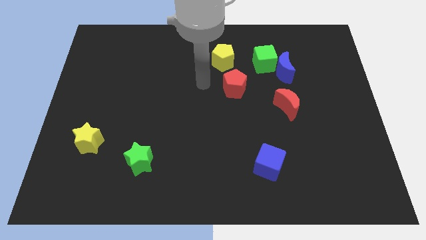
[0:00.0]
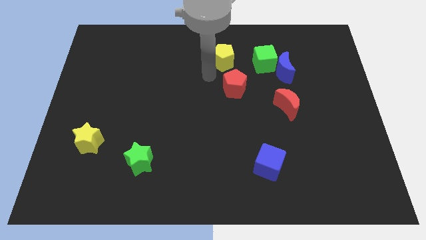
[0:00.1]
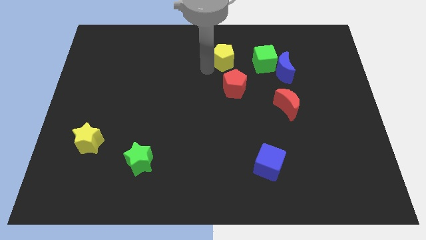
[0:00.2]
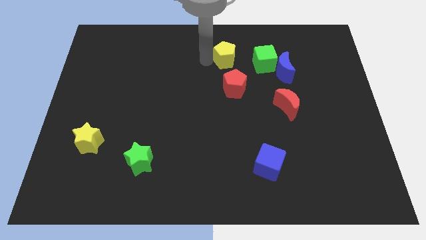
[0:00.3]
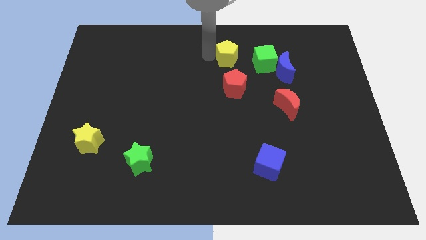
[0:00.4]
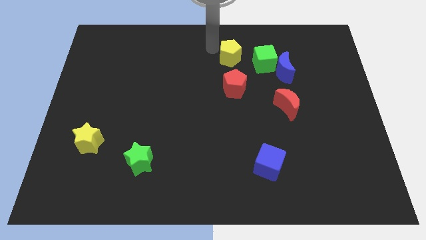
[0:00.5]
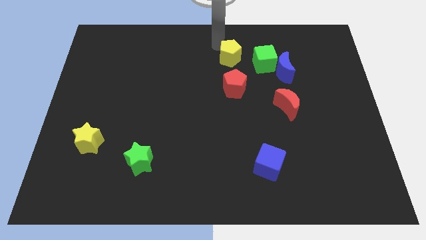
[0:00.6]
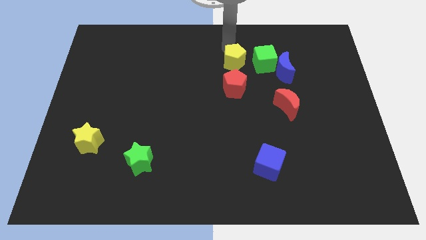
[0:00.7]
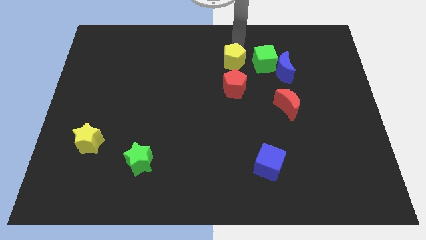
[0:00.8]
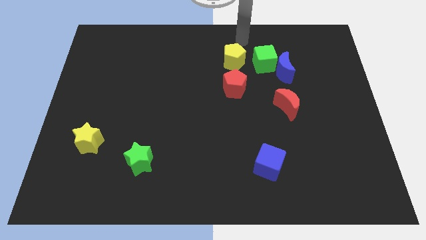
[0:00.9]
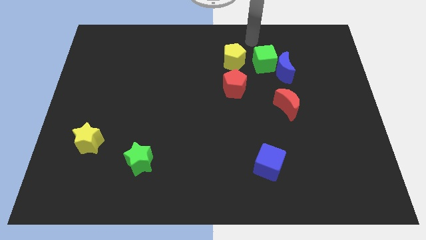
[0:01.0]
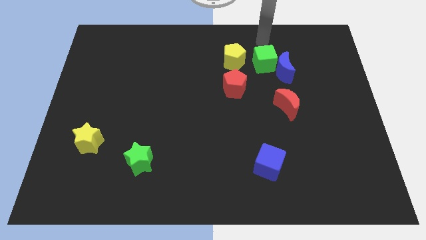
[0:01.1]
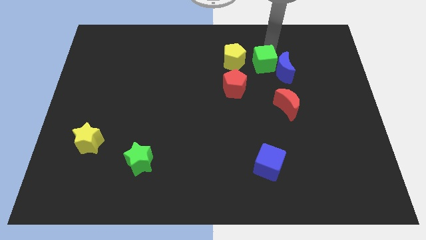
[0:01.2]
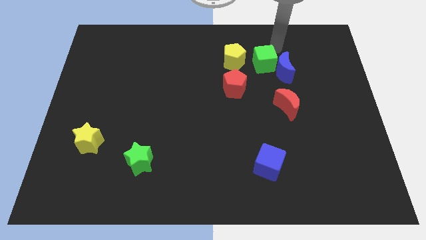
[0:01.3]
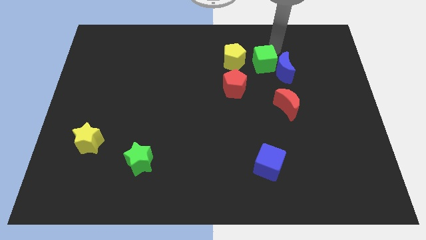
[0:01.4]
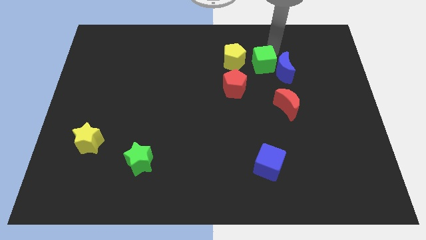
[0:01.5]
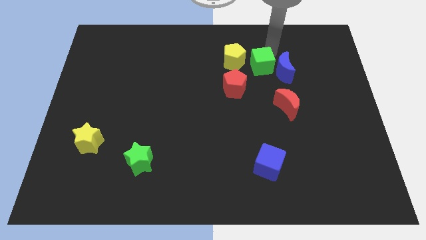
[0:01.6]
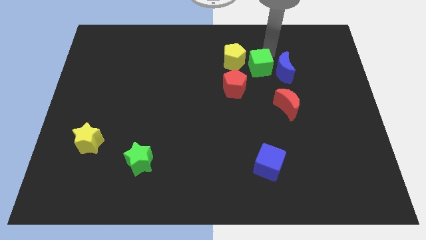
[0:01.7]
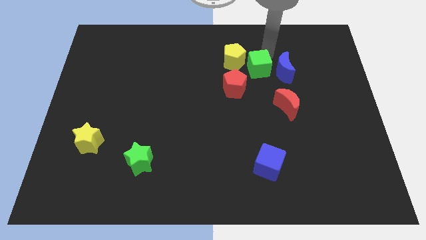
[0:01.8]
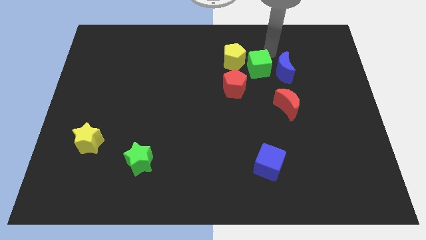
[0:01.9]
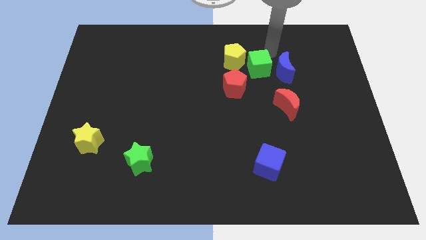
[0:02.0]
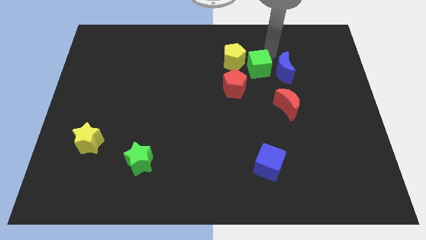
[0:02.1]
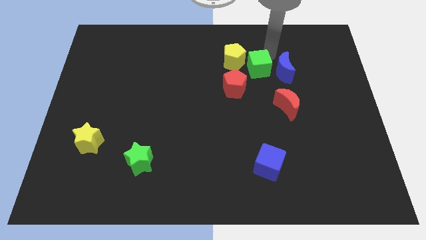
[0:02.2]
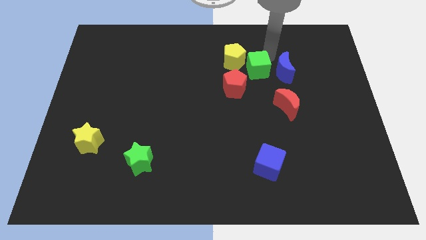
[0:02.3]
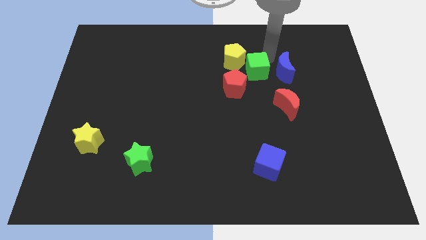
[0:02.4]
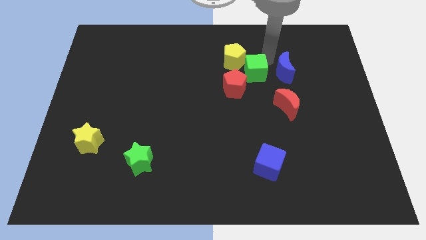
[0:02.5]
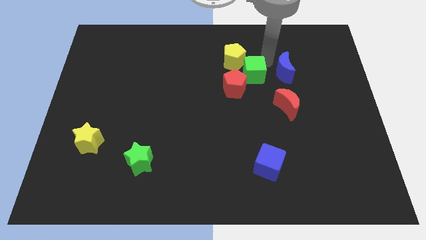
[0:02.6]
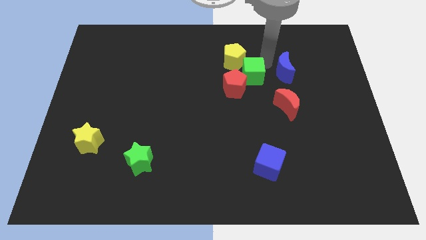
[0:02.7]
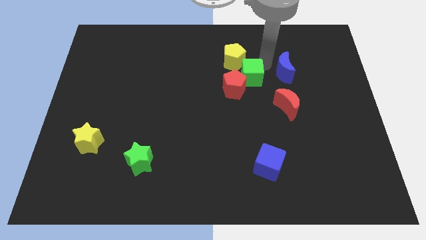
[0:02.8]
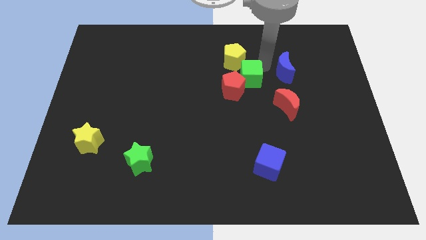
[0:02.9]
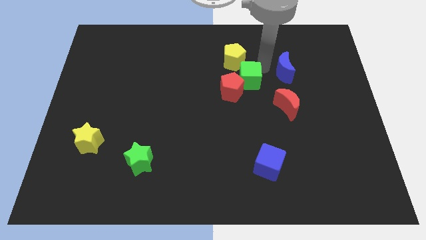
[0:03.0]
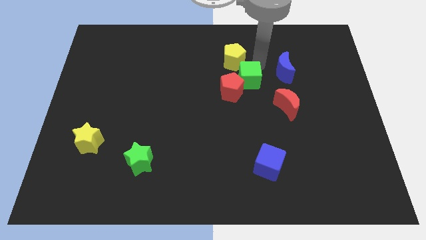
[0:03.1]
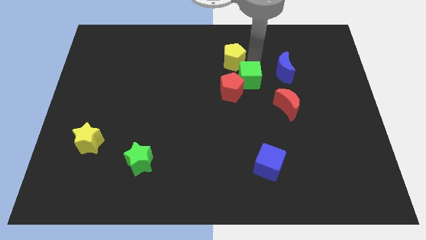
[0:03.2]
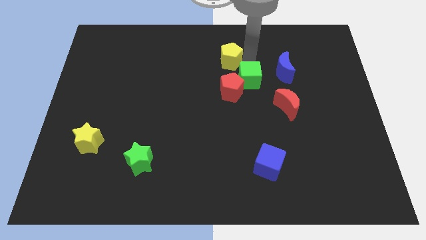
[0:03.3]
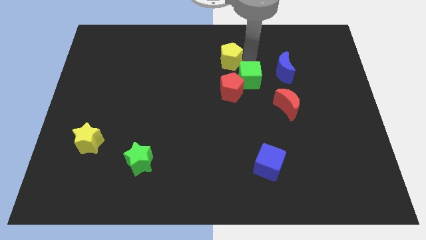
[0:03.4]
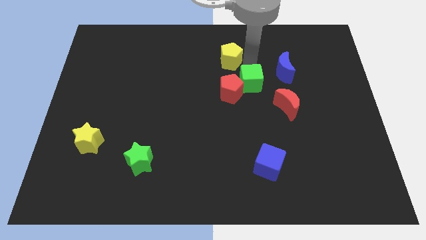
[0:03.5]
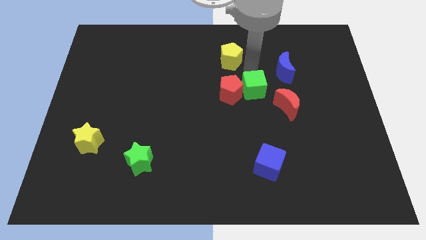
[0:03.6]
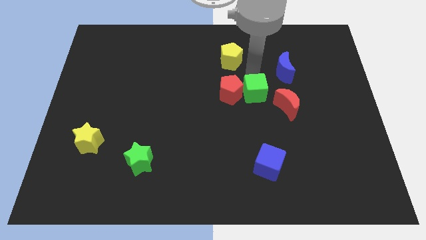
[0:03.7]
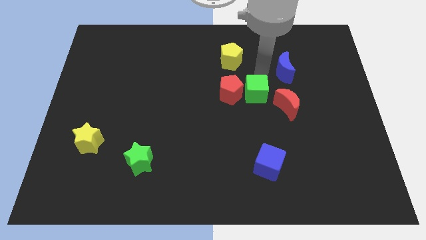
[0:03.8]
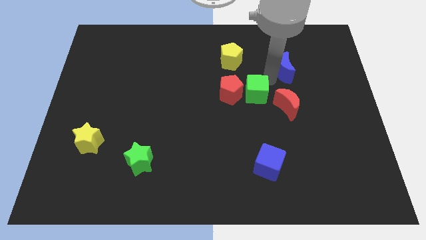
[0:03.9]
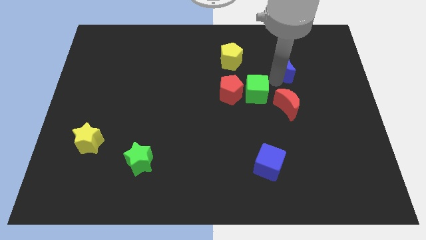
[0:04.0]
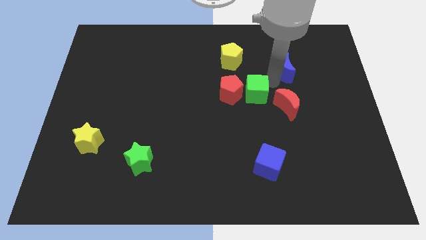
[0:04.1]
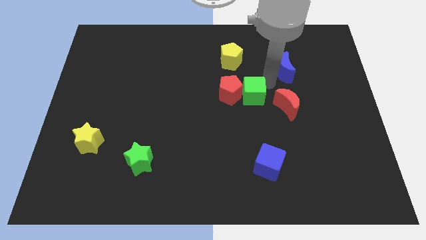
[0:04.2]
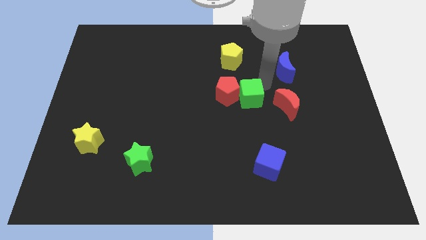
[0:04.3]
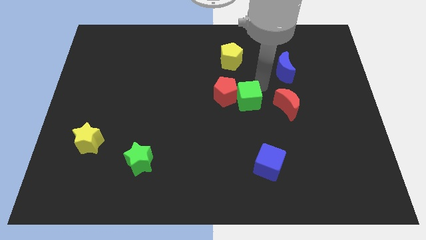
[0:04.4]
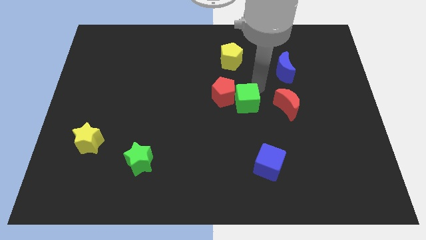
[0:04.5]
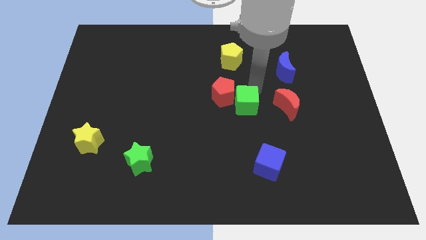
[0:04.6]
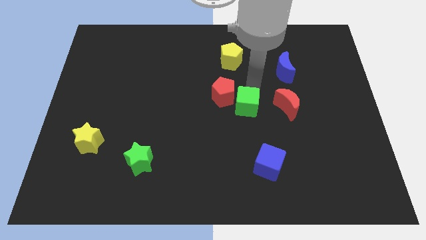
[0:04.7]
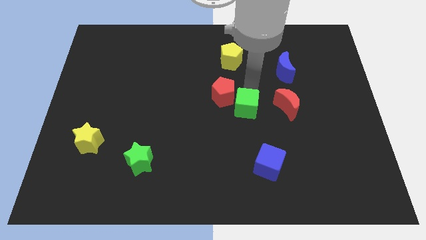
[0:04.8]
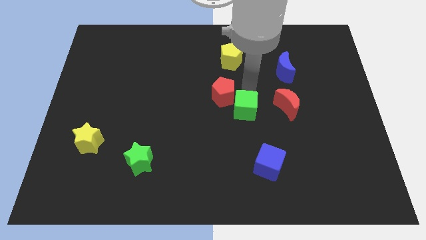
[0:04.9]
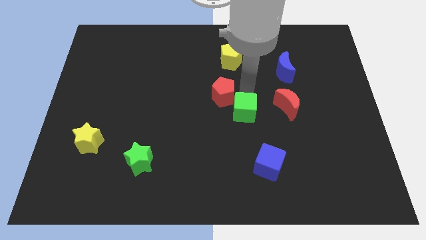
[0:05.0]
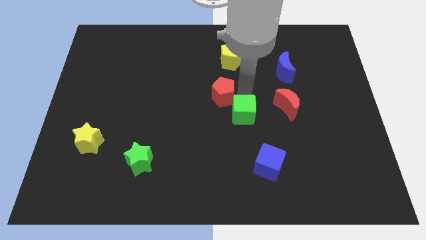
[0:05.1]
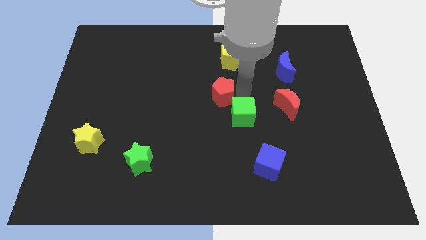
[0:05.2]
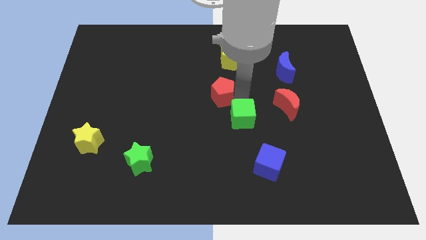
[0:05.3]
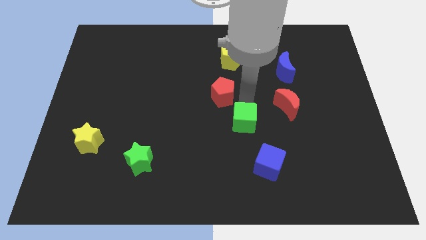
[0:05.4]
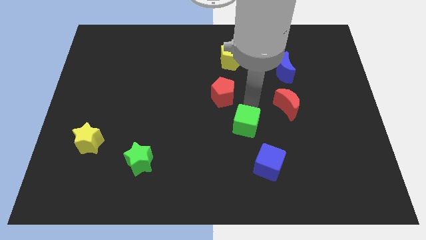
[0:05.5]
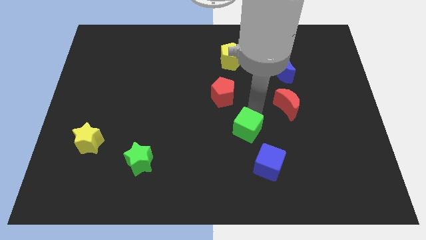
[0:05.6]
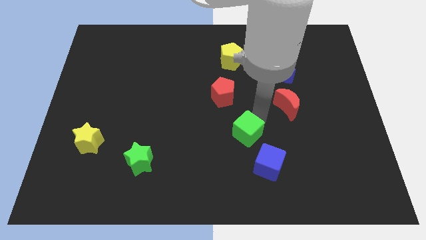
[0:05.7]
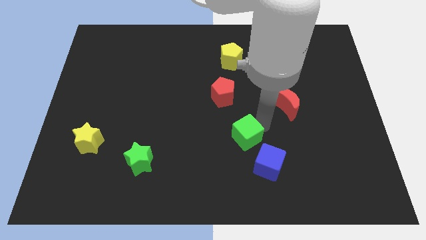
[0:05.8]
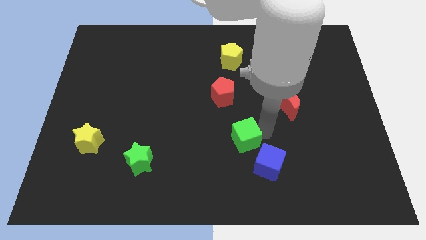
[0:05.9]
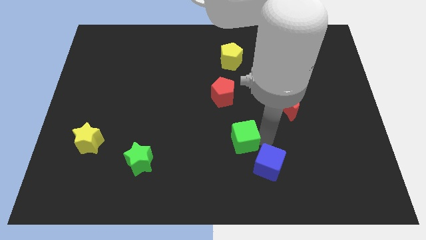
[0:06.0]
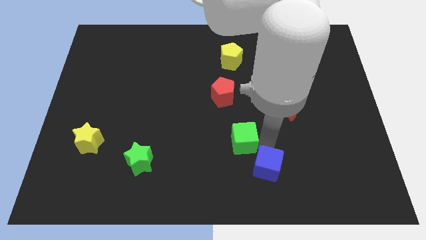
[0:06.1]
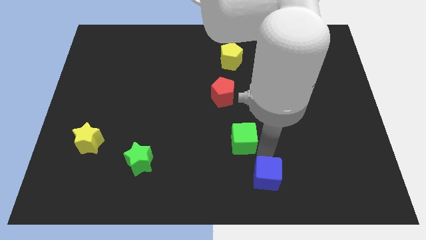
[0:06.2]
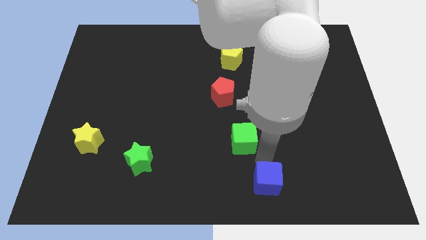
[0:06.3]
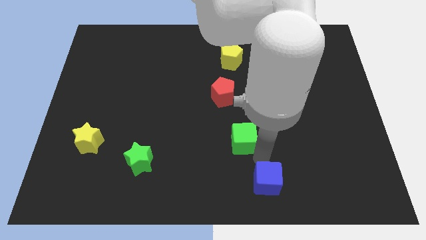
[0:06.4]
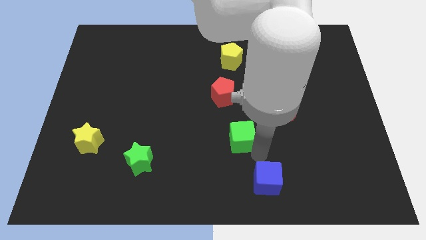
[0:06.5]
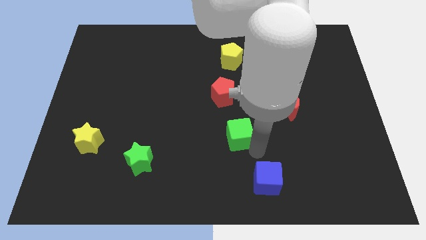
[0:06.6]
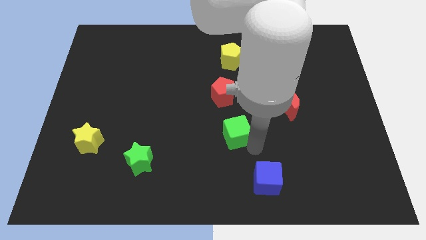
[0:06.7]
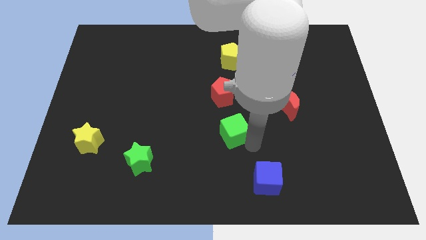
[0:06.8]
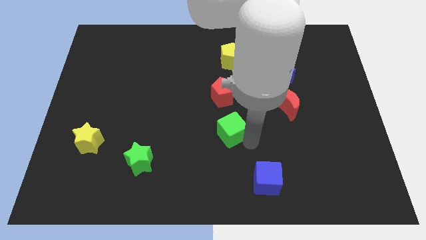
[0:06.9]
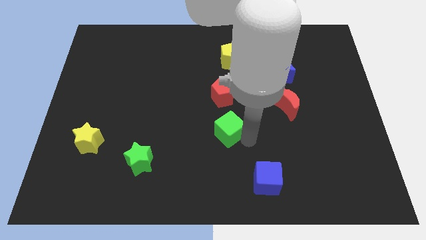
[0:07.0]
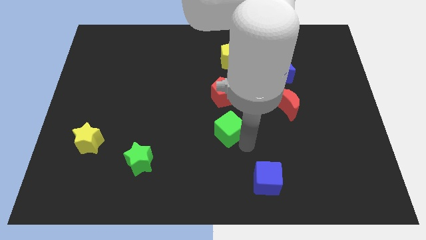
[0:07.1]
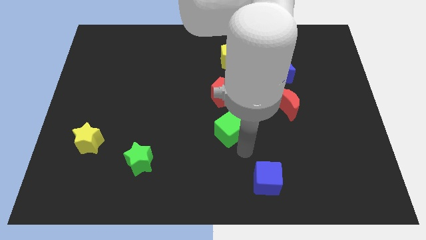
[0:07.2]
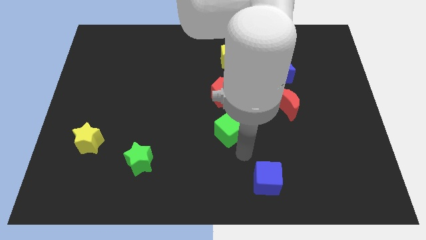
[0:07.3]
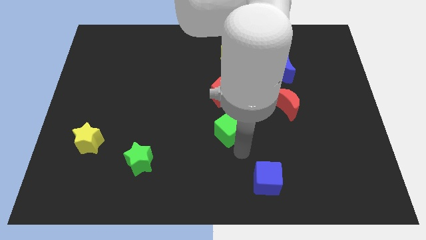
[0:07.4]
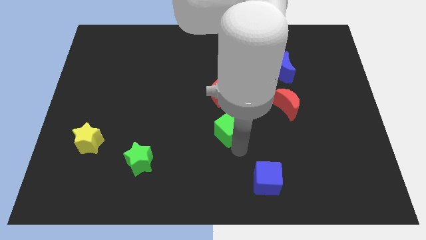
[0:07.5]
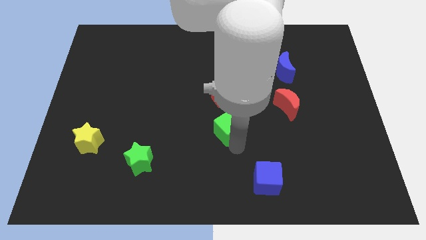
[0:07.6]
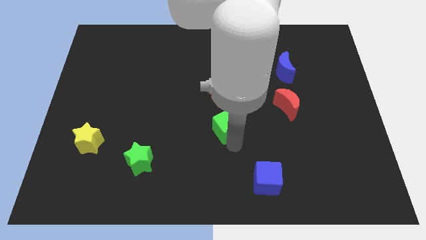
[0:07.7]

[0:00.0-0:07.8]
slide the green cube downwards and to the left

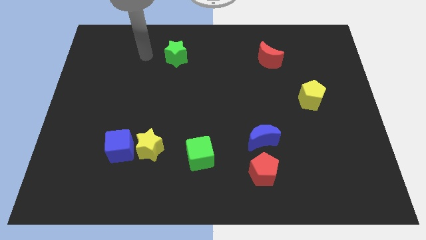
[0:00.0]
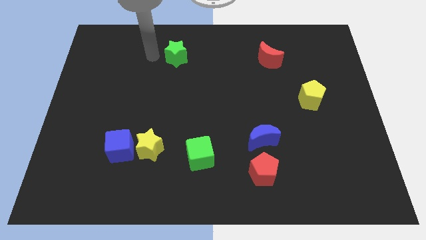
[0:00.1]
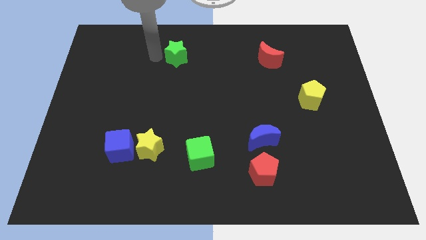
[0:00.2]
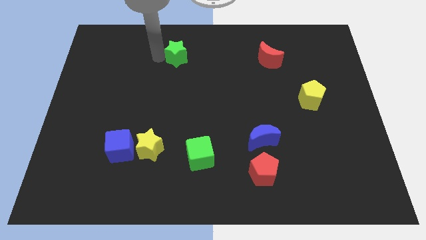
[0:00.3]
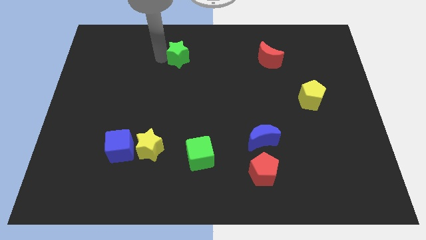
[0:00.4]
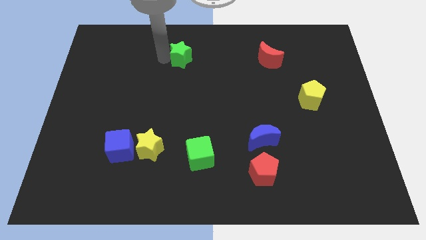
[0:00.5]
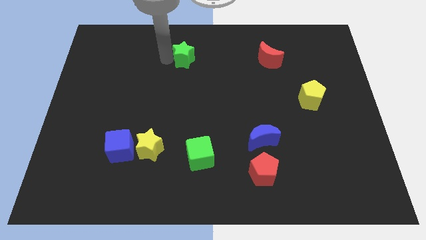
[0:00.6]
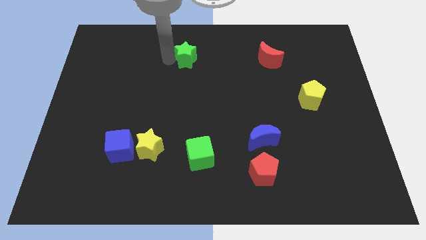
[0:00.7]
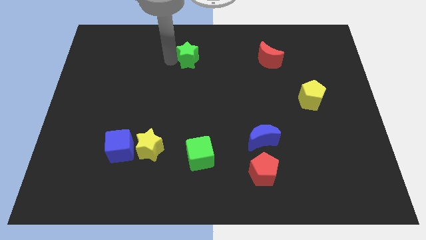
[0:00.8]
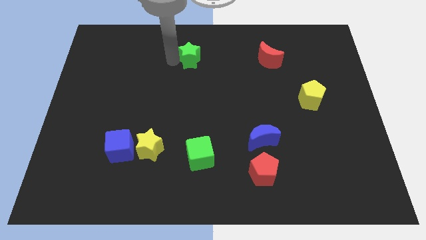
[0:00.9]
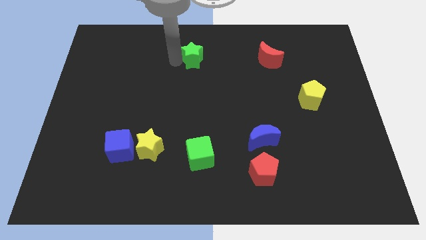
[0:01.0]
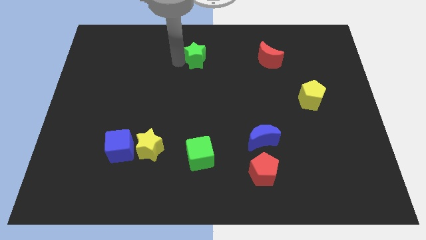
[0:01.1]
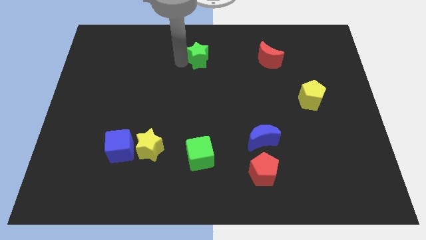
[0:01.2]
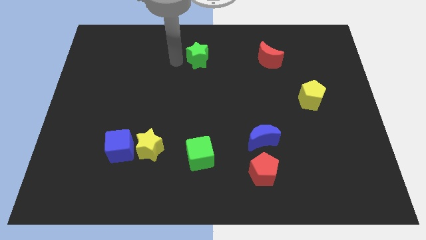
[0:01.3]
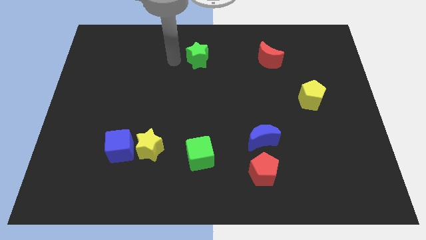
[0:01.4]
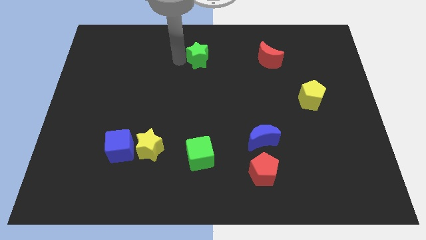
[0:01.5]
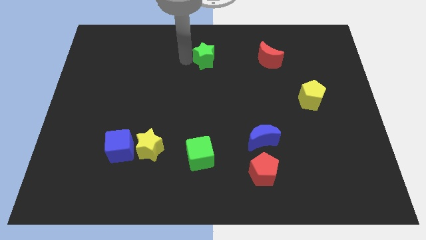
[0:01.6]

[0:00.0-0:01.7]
move the green star a bit right
